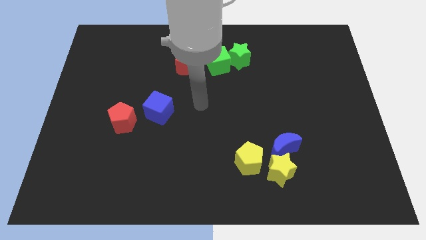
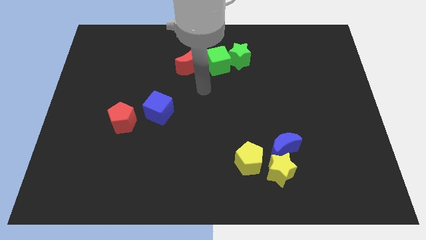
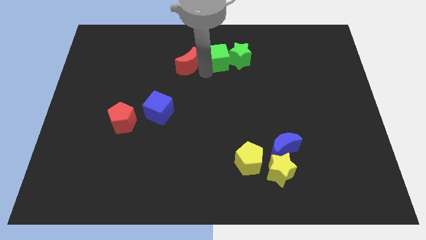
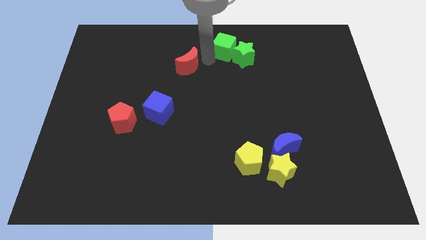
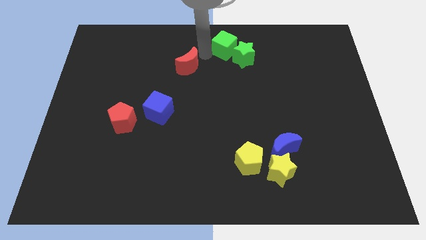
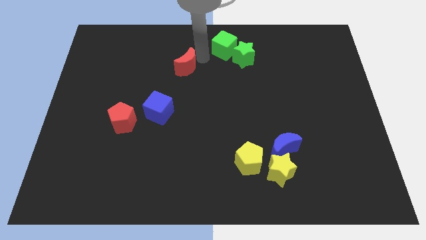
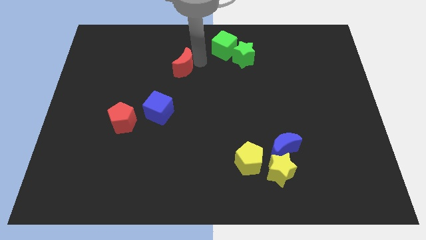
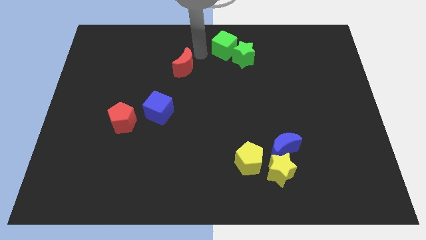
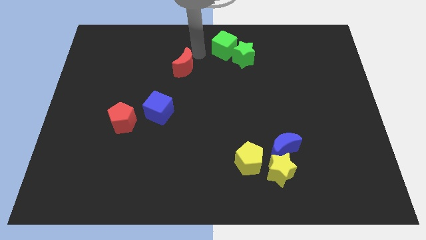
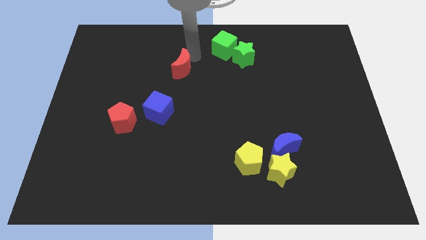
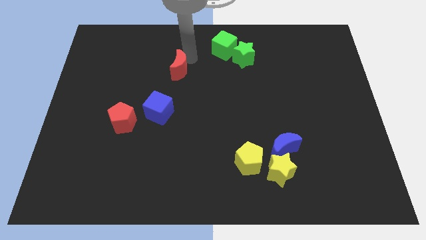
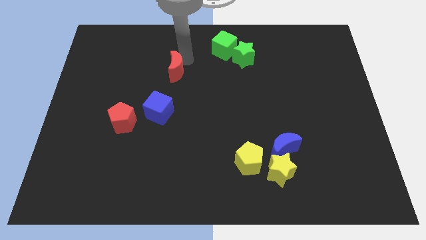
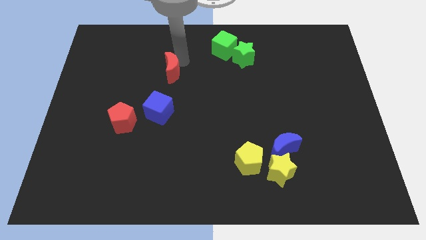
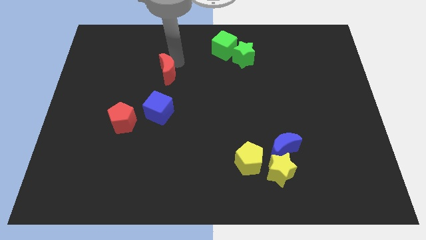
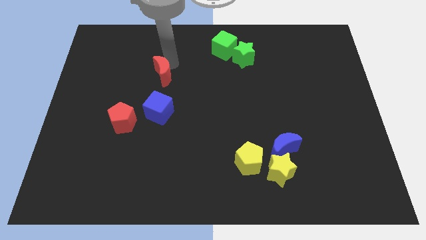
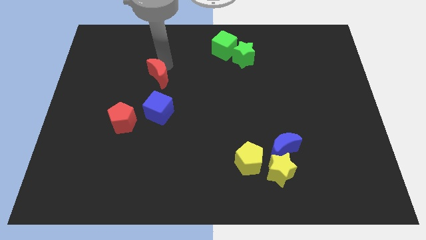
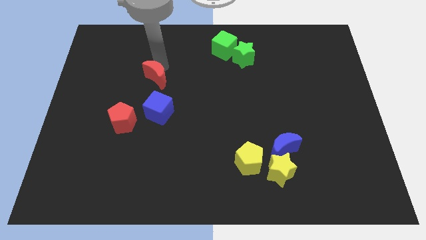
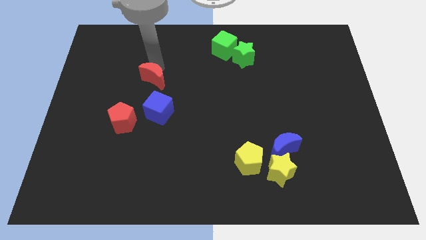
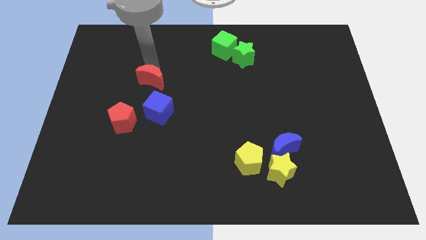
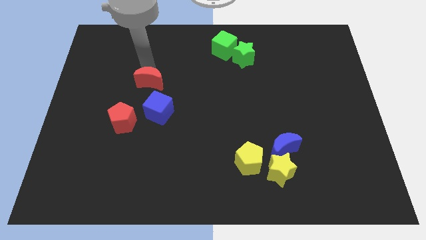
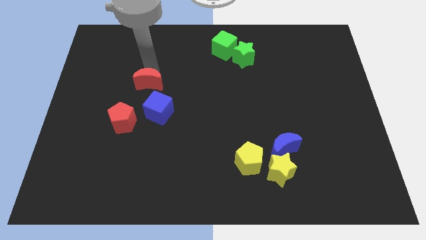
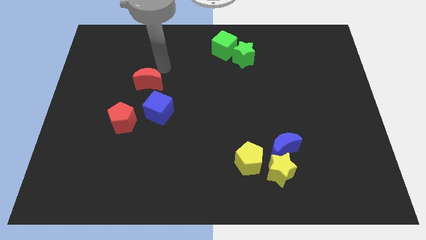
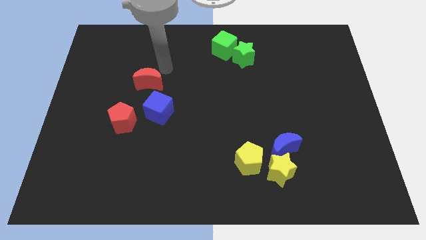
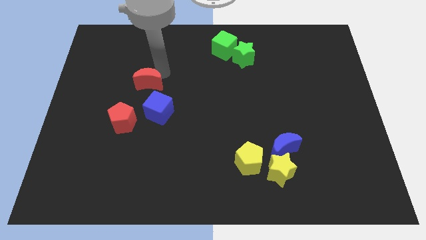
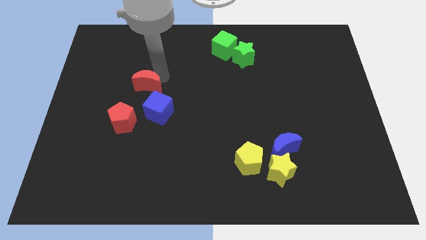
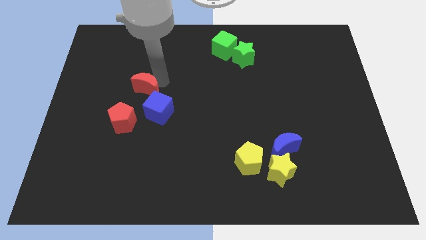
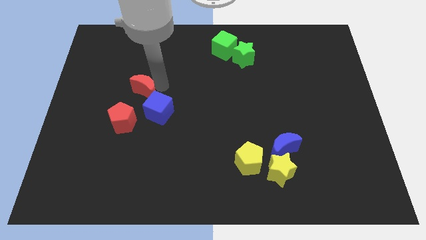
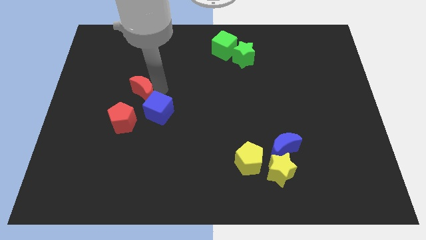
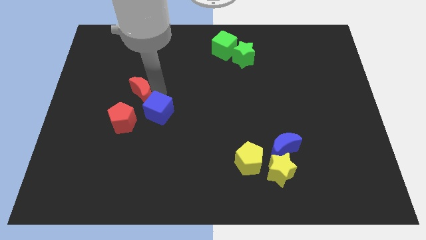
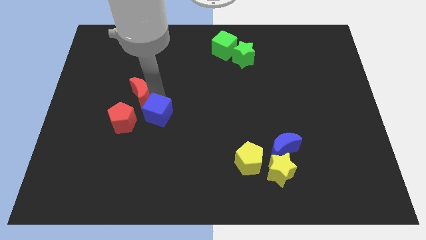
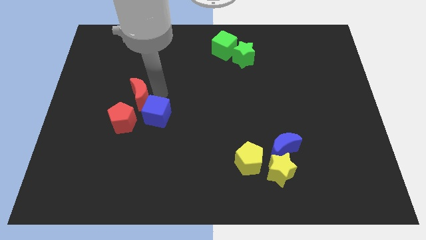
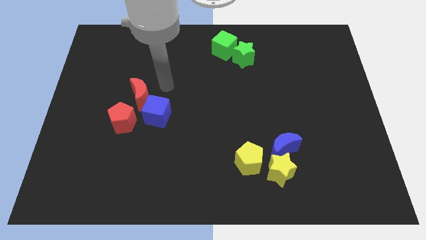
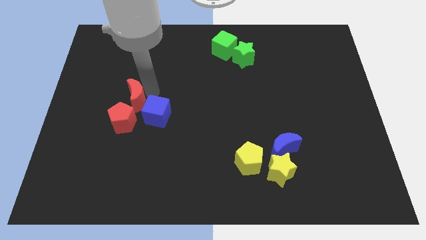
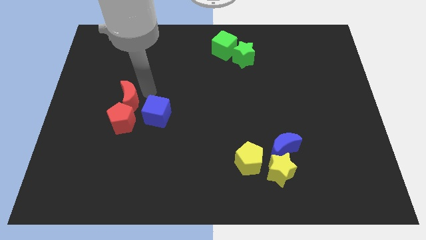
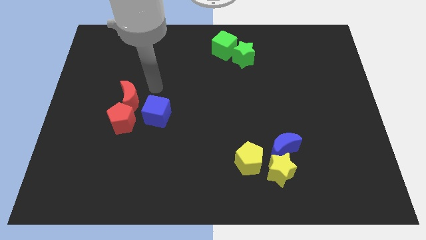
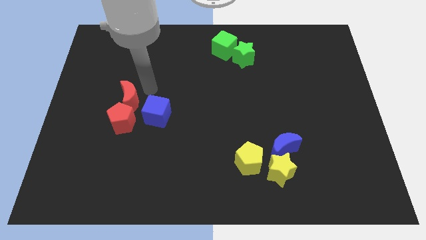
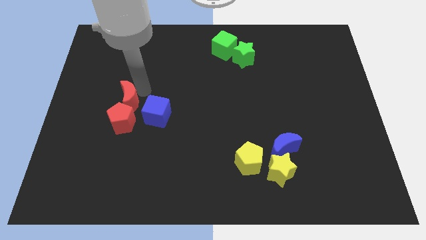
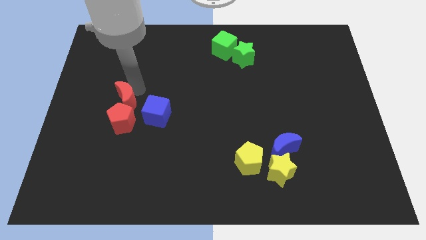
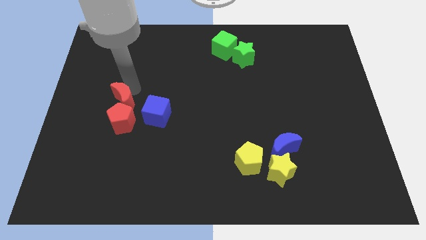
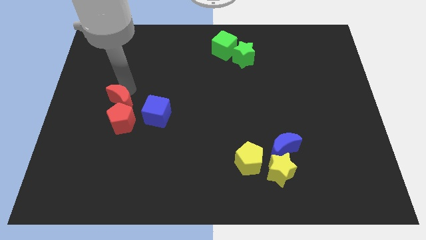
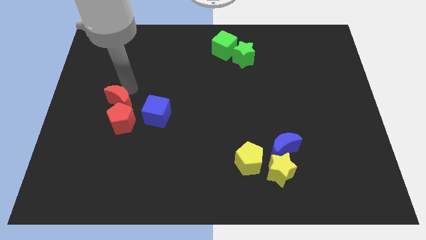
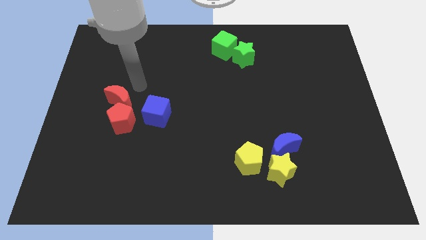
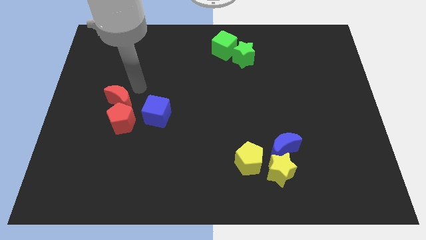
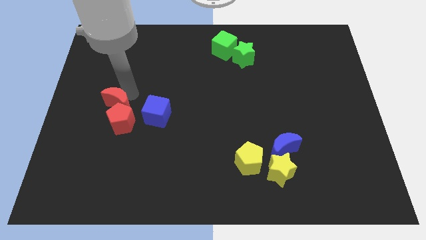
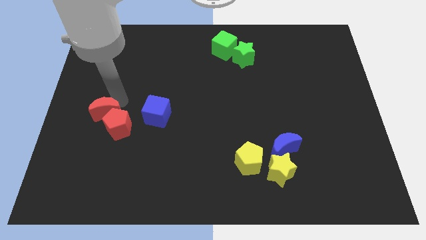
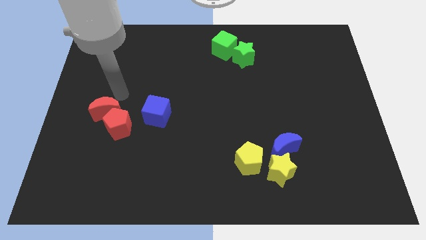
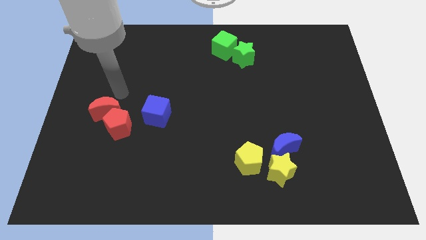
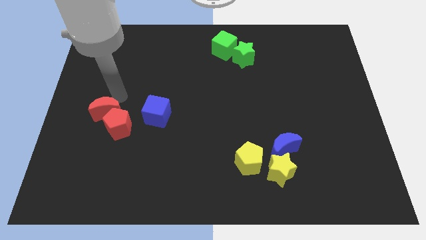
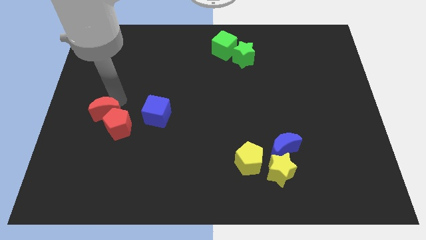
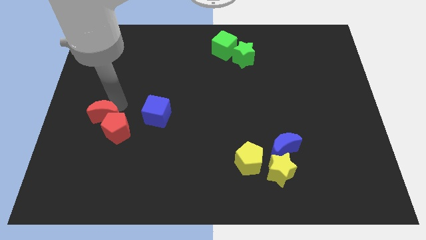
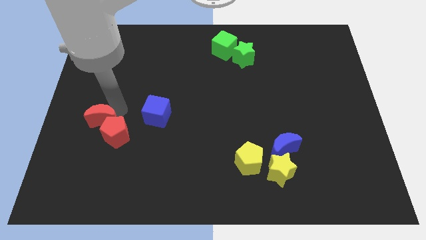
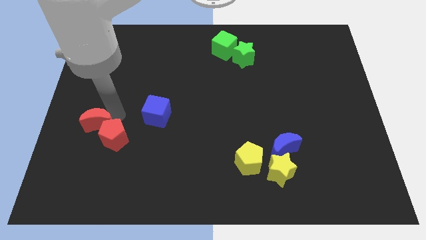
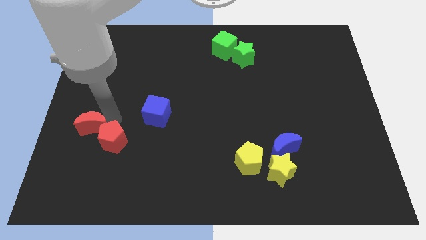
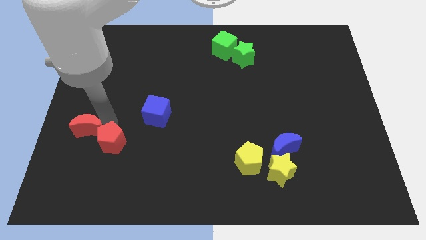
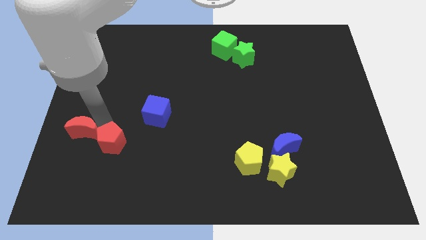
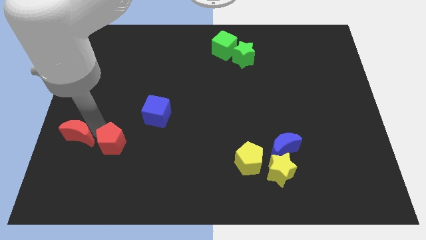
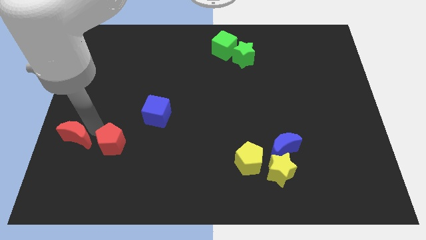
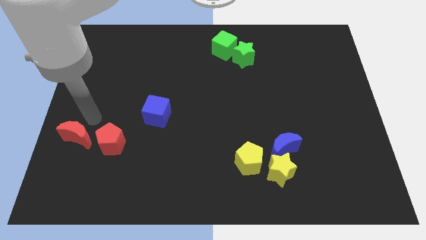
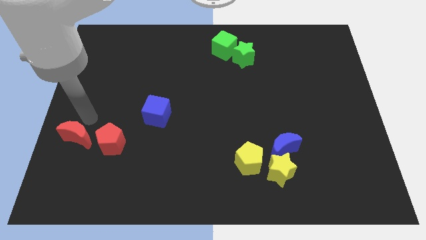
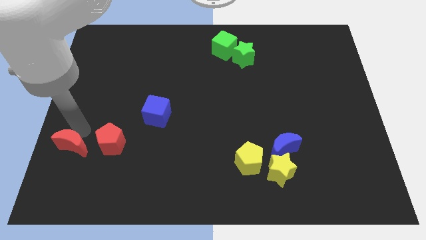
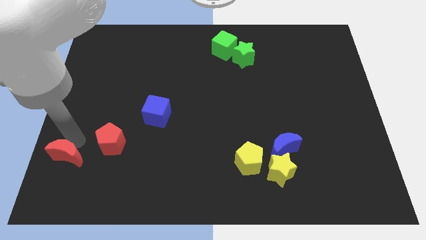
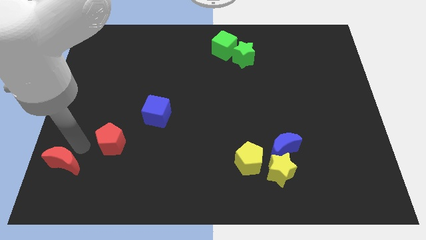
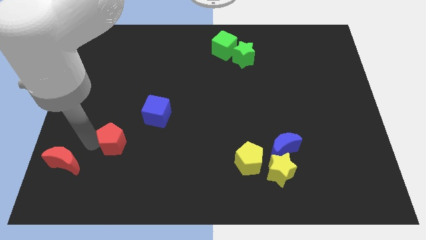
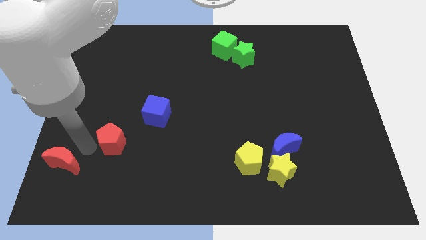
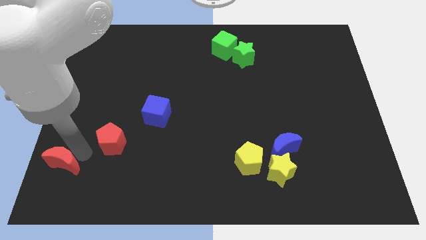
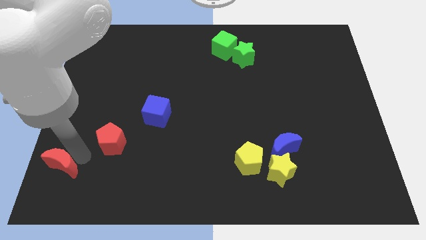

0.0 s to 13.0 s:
move the red moon to the lower left corner

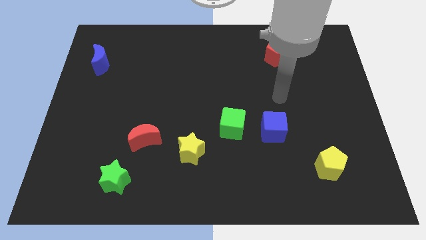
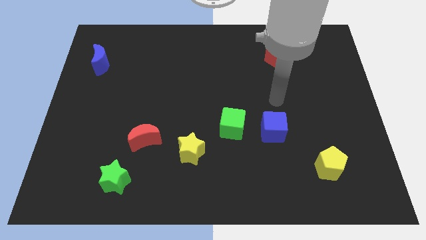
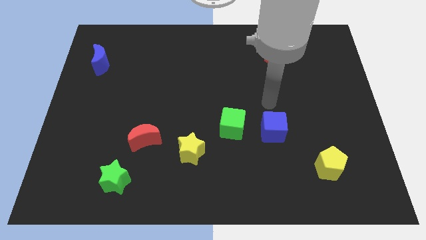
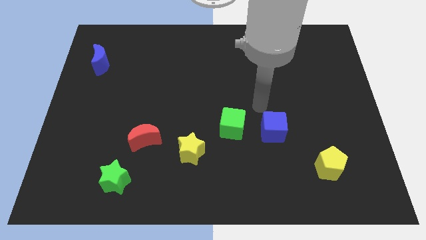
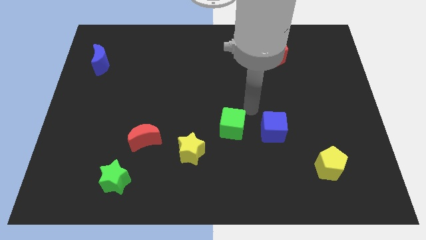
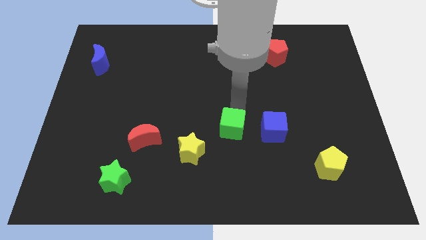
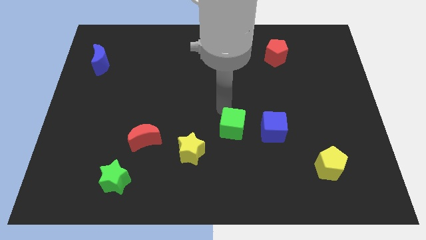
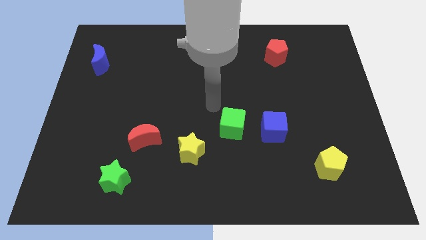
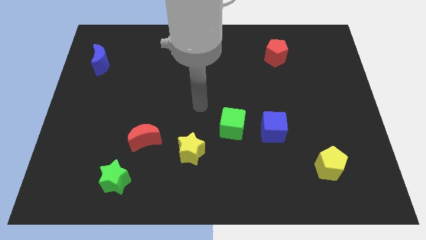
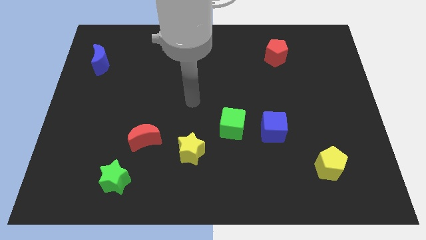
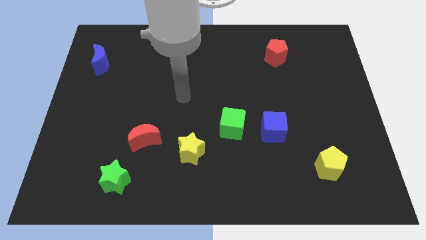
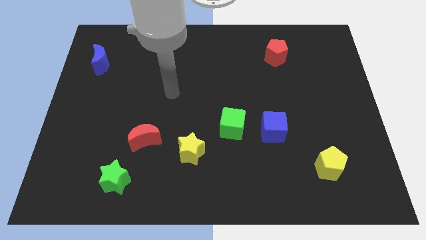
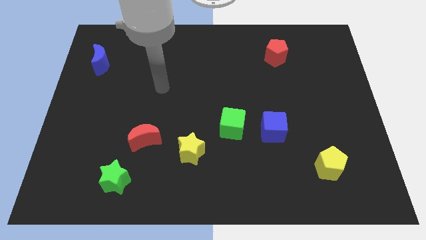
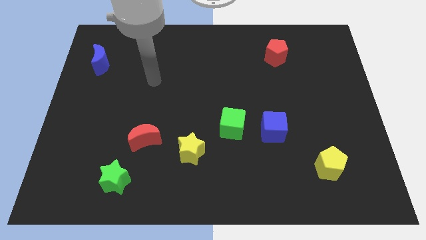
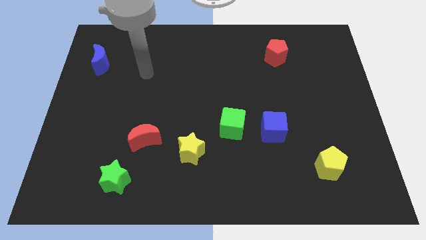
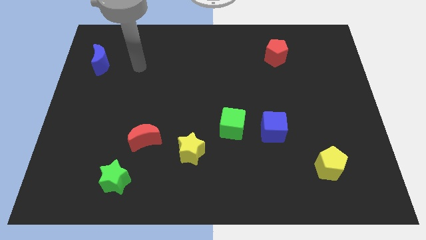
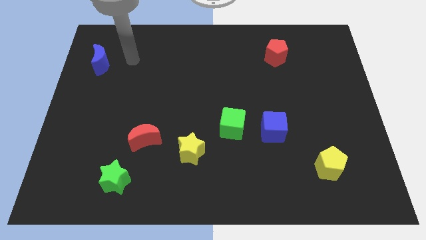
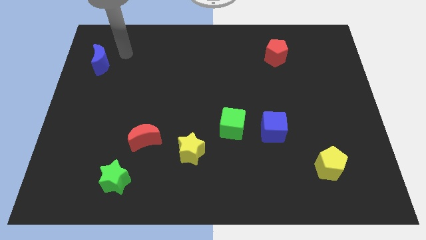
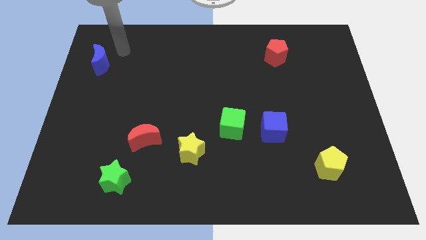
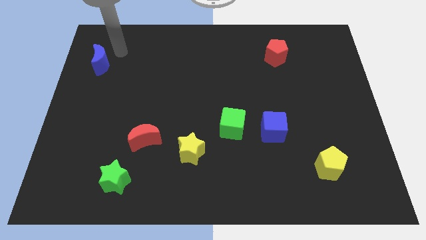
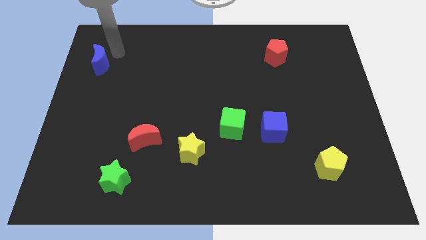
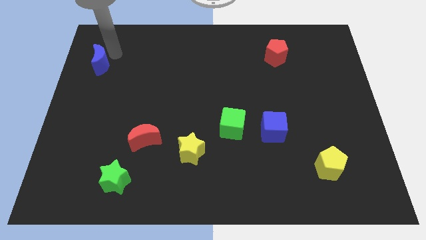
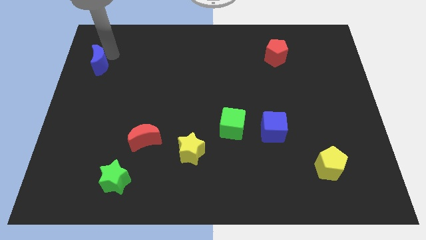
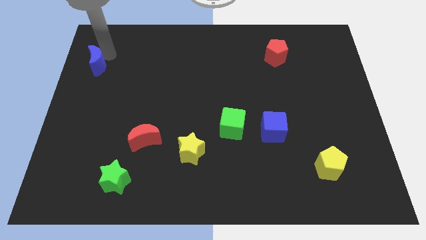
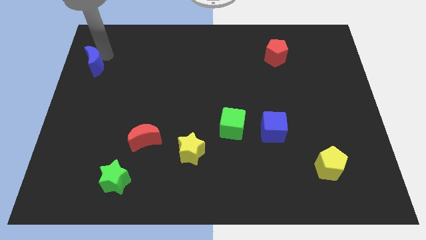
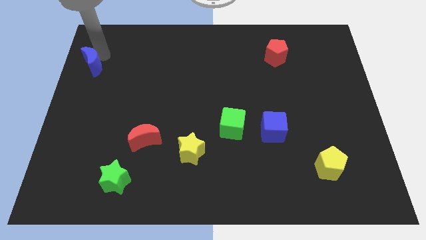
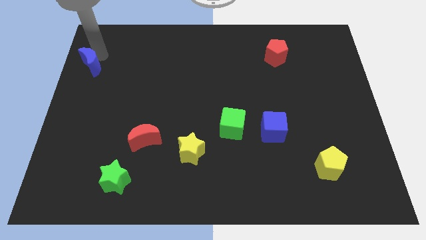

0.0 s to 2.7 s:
slide the blue moon to the left side of the board
